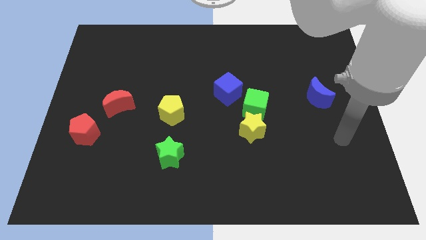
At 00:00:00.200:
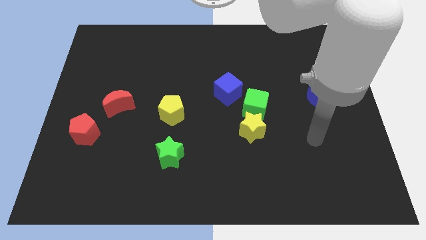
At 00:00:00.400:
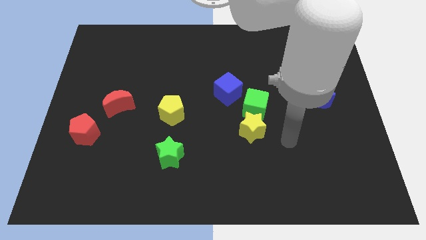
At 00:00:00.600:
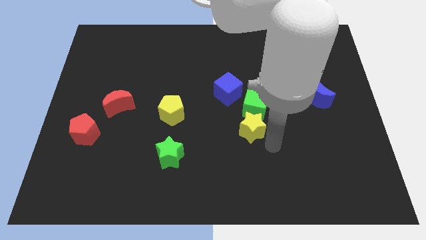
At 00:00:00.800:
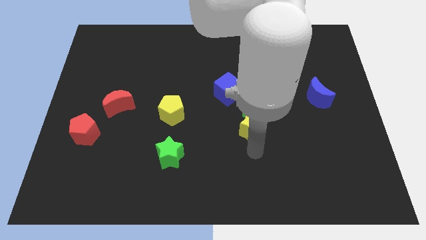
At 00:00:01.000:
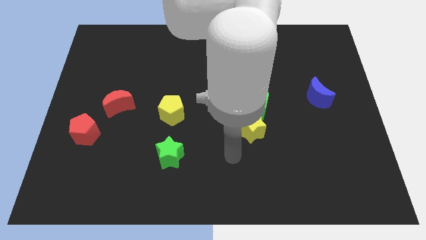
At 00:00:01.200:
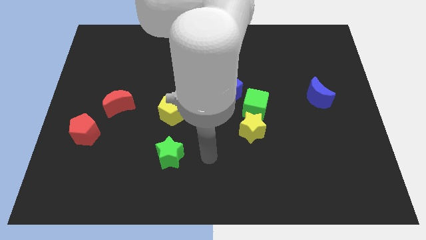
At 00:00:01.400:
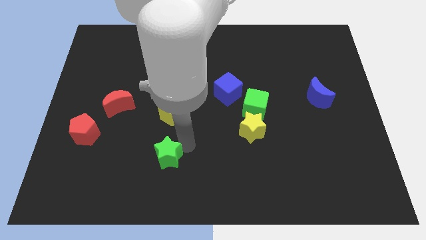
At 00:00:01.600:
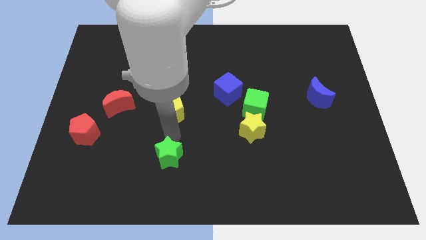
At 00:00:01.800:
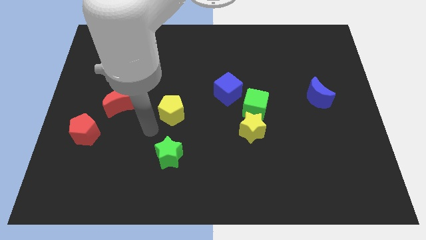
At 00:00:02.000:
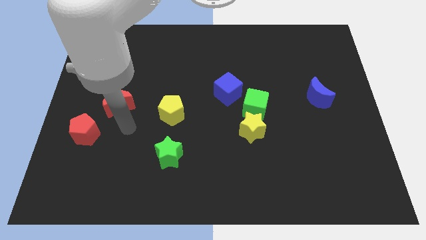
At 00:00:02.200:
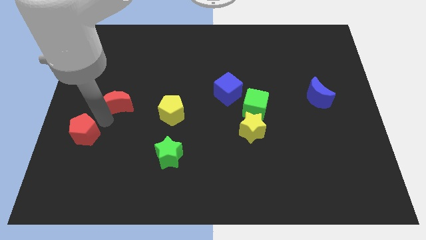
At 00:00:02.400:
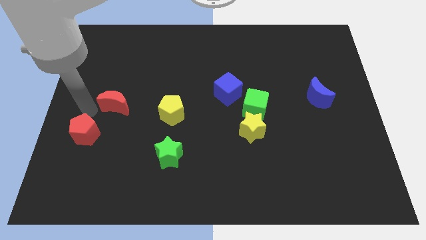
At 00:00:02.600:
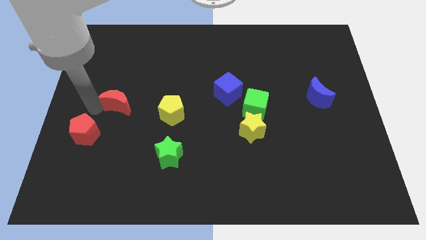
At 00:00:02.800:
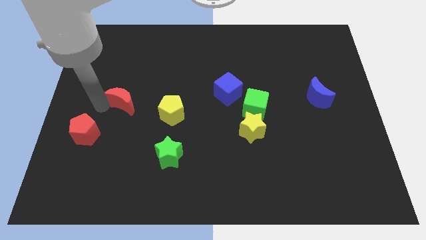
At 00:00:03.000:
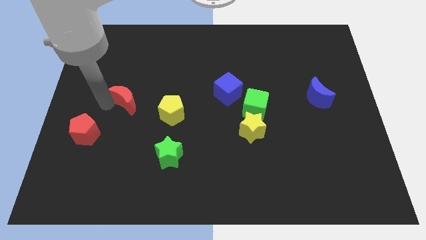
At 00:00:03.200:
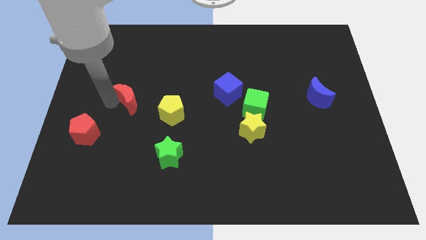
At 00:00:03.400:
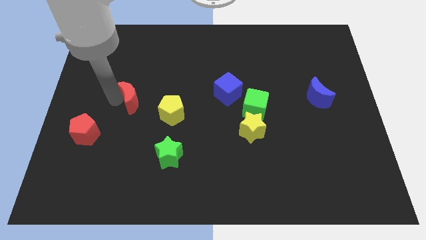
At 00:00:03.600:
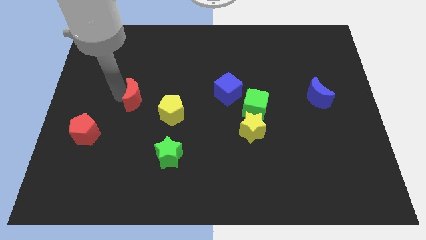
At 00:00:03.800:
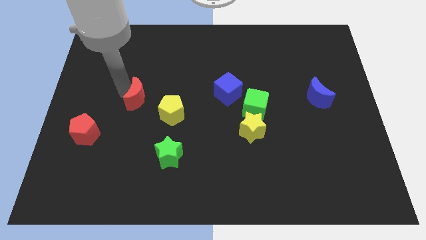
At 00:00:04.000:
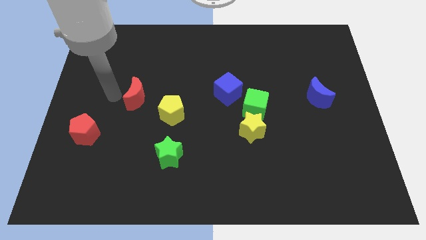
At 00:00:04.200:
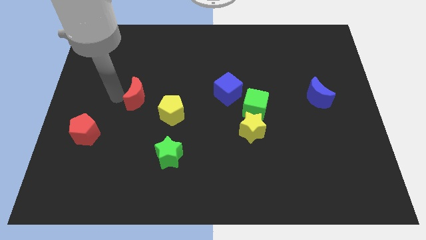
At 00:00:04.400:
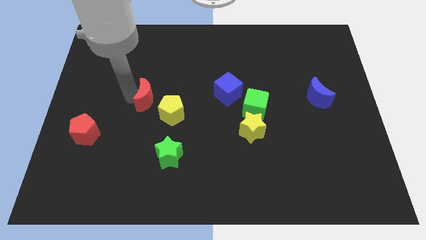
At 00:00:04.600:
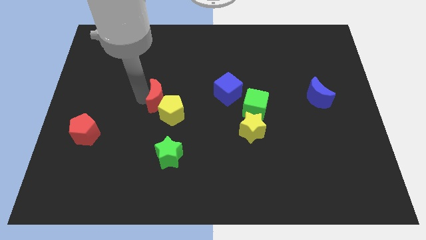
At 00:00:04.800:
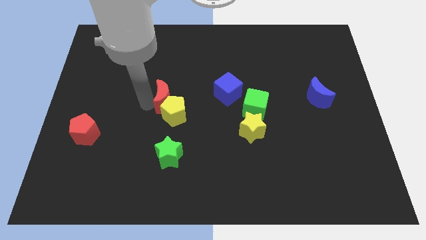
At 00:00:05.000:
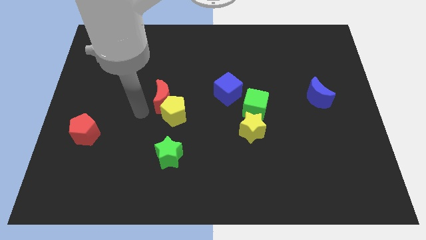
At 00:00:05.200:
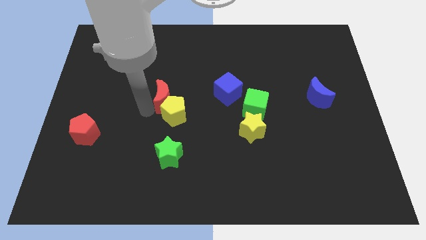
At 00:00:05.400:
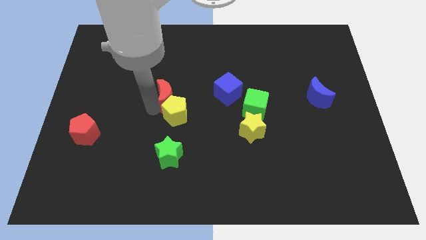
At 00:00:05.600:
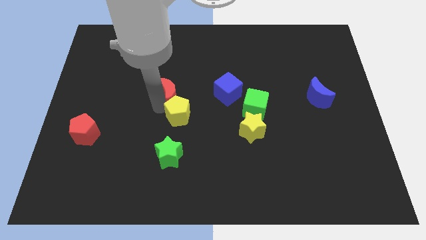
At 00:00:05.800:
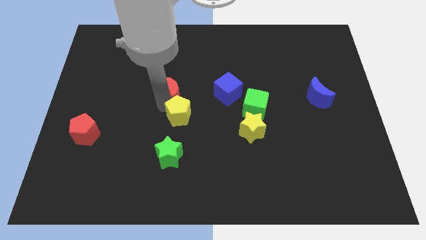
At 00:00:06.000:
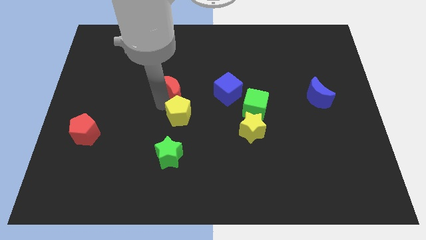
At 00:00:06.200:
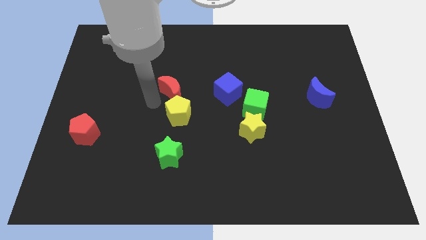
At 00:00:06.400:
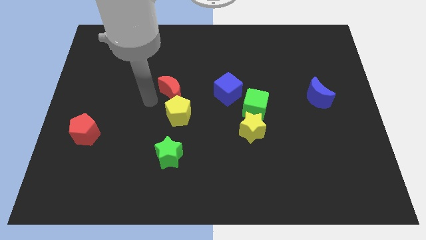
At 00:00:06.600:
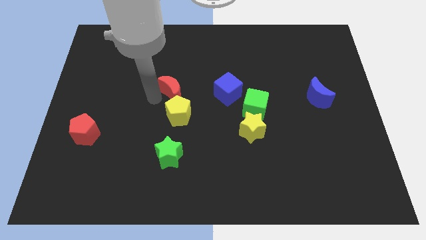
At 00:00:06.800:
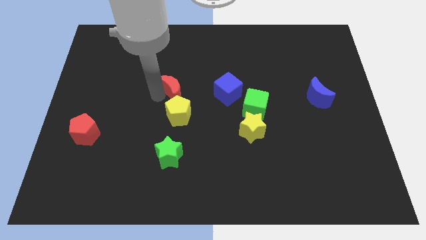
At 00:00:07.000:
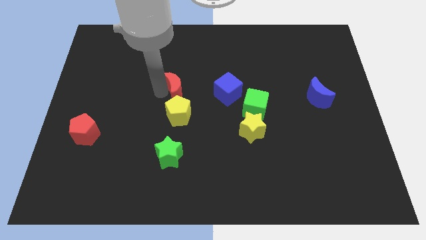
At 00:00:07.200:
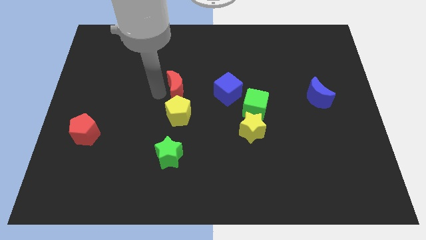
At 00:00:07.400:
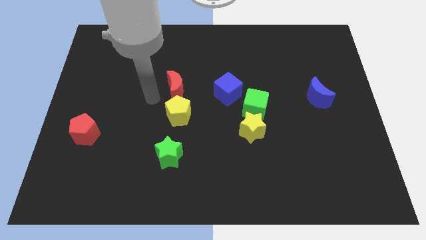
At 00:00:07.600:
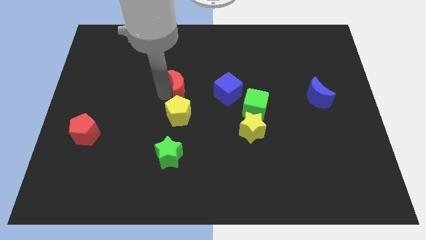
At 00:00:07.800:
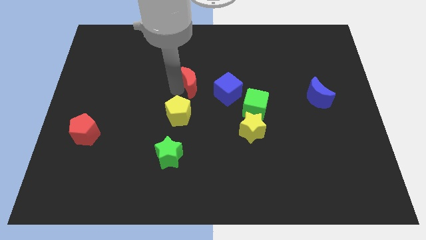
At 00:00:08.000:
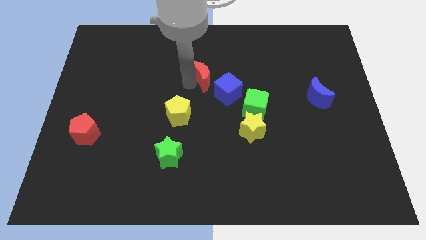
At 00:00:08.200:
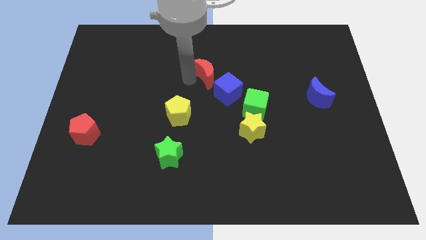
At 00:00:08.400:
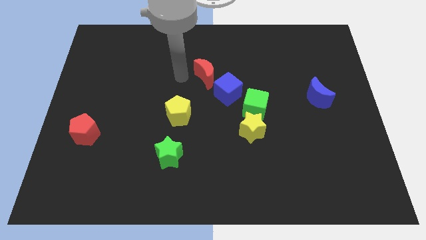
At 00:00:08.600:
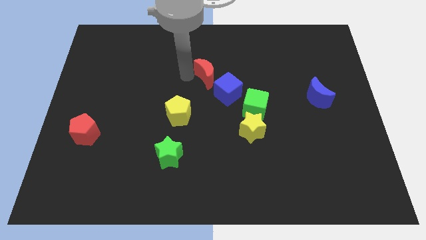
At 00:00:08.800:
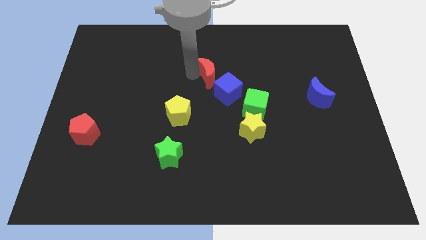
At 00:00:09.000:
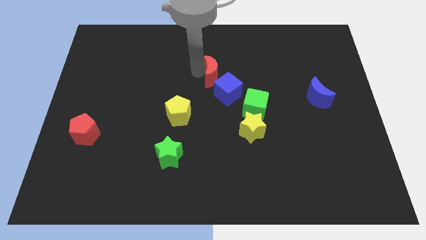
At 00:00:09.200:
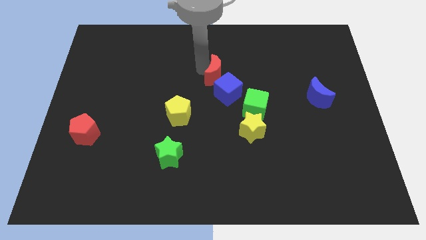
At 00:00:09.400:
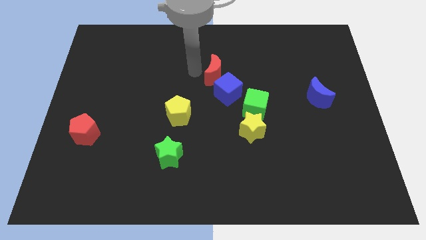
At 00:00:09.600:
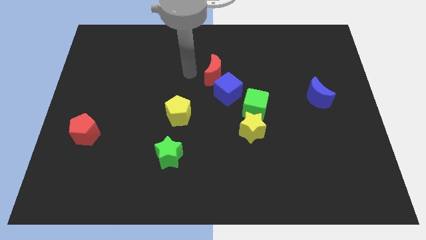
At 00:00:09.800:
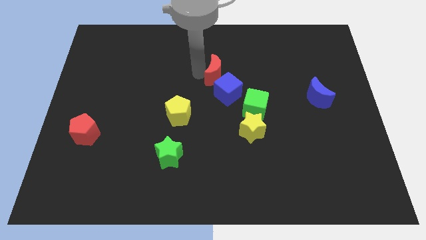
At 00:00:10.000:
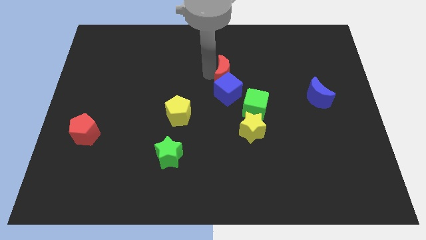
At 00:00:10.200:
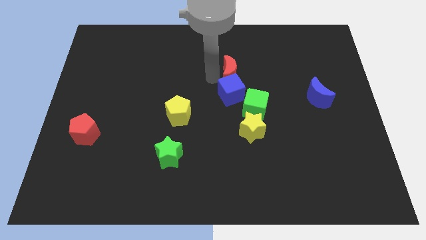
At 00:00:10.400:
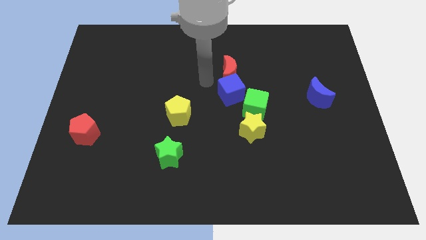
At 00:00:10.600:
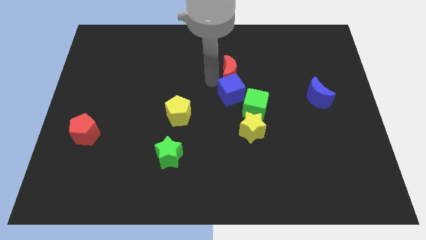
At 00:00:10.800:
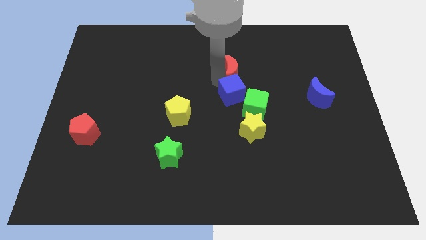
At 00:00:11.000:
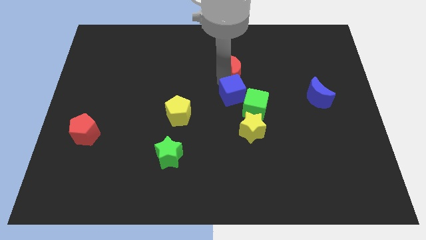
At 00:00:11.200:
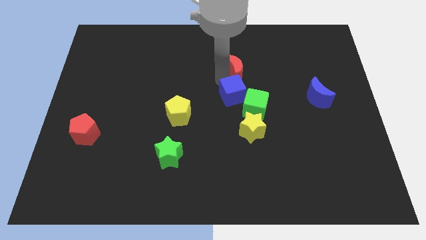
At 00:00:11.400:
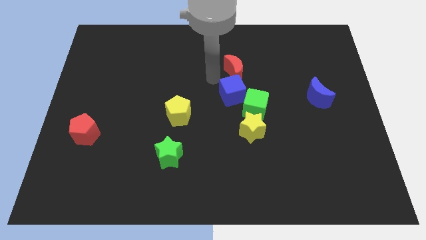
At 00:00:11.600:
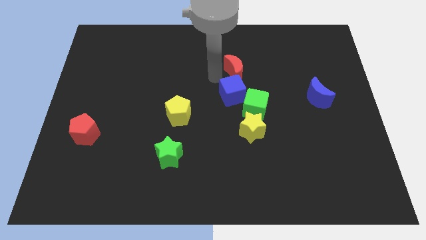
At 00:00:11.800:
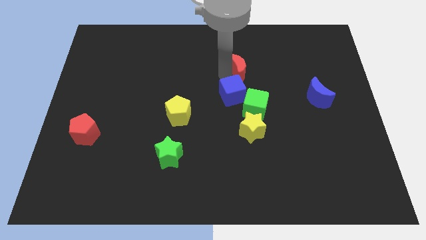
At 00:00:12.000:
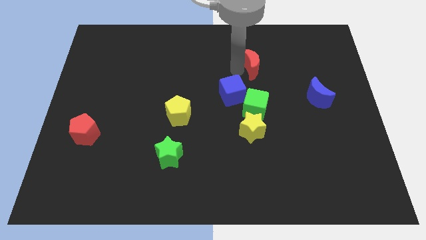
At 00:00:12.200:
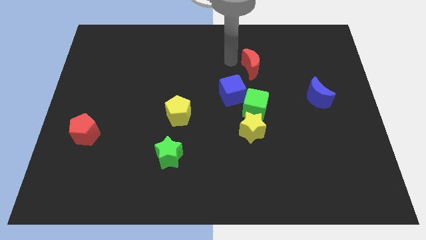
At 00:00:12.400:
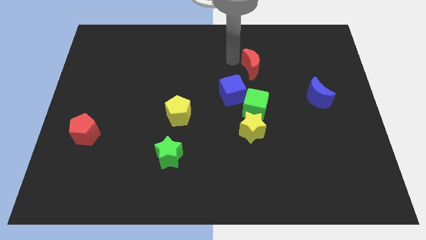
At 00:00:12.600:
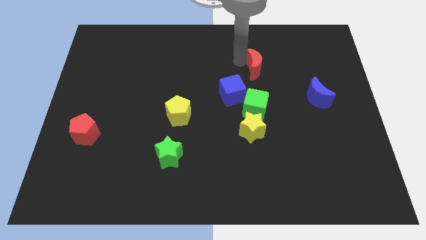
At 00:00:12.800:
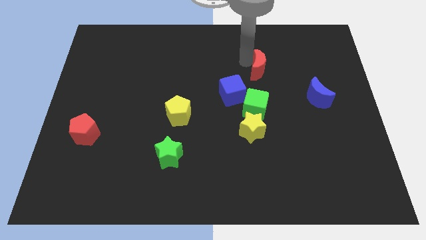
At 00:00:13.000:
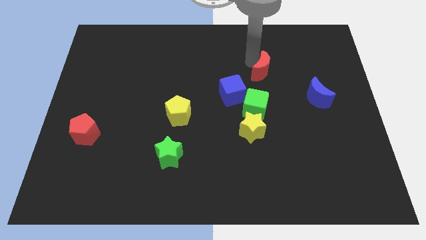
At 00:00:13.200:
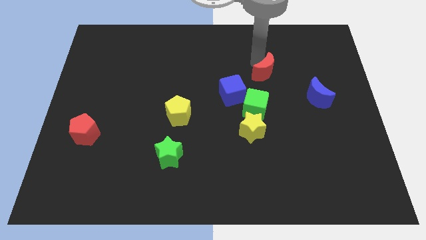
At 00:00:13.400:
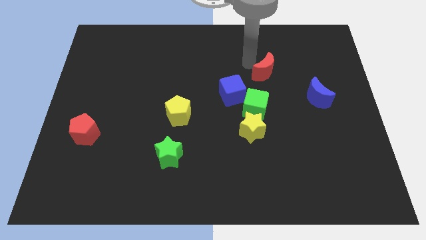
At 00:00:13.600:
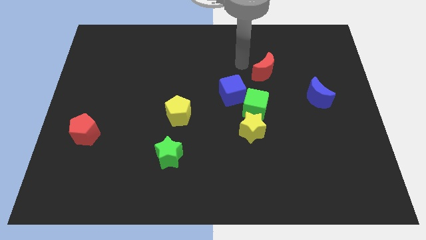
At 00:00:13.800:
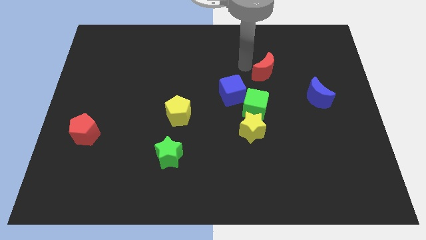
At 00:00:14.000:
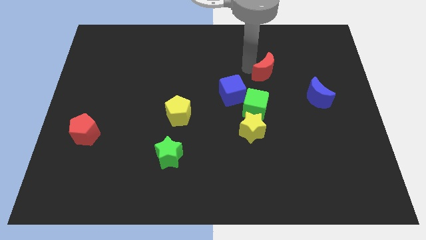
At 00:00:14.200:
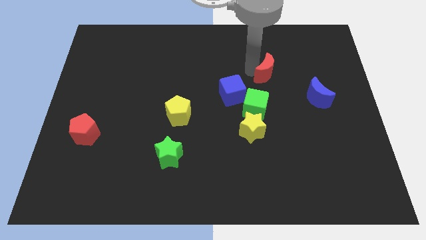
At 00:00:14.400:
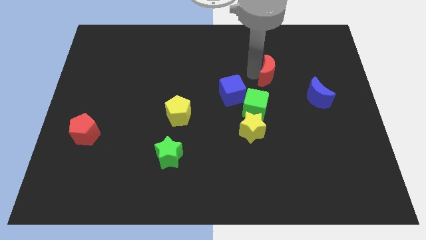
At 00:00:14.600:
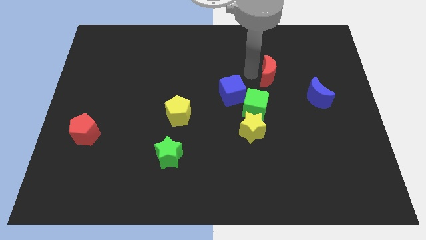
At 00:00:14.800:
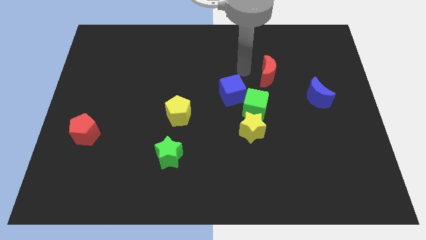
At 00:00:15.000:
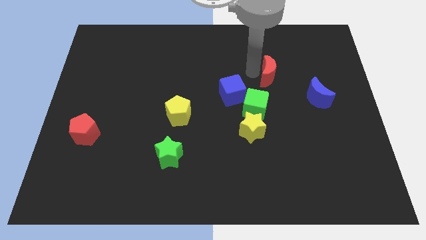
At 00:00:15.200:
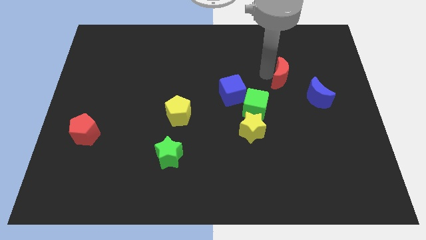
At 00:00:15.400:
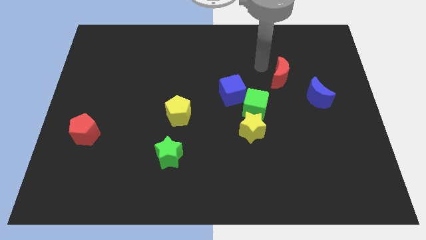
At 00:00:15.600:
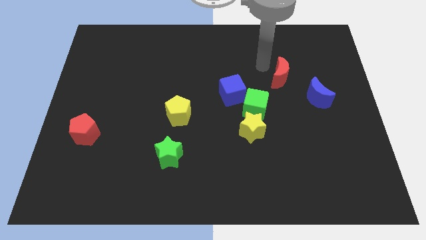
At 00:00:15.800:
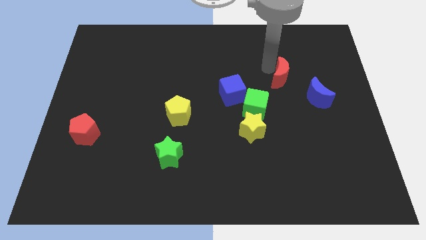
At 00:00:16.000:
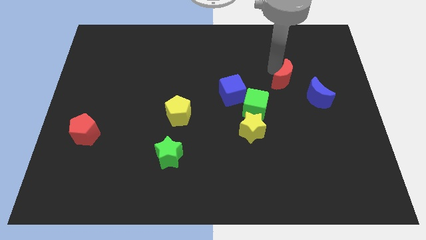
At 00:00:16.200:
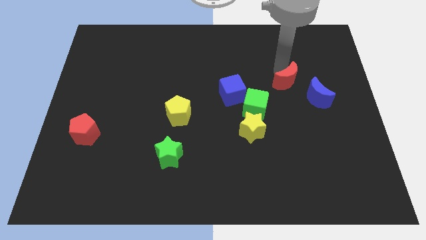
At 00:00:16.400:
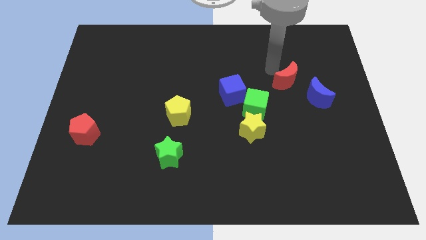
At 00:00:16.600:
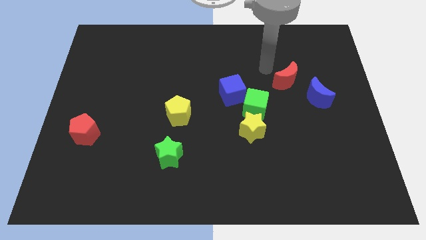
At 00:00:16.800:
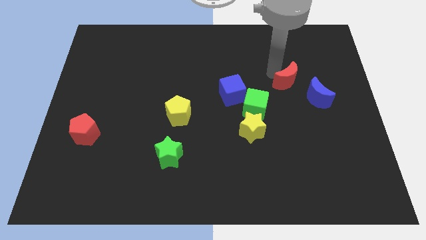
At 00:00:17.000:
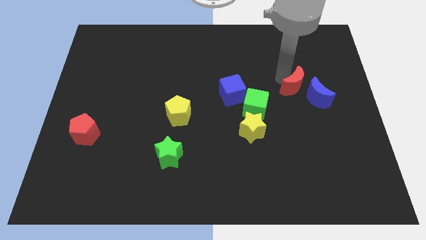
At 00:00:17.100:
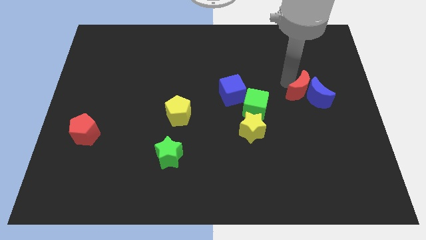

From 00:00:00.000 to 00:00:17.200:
slide the red moon to the blue moon
